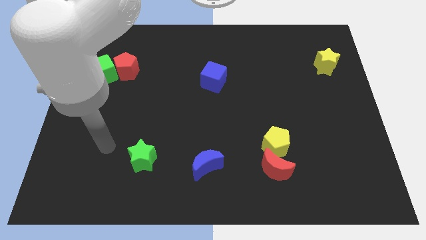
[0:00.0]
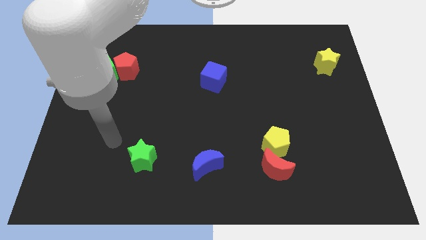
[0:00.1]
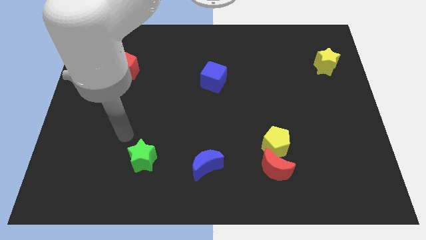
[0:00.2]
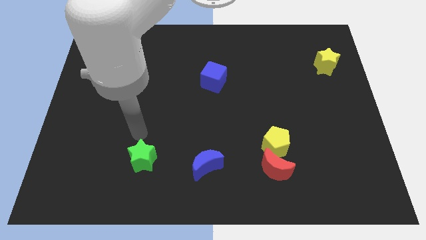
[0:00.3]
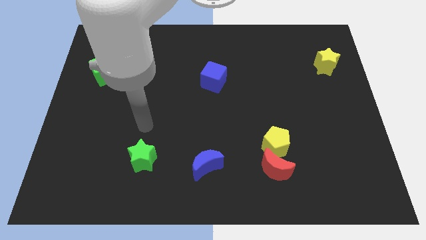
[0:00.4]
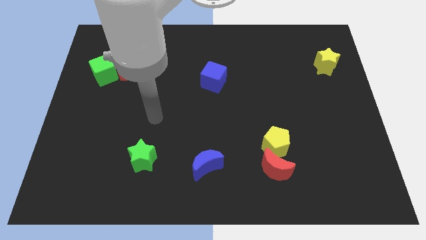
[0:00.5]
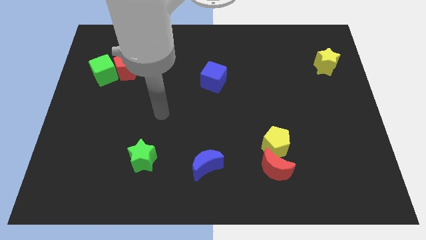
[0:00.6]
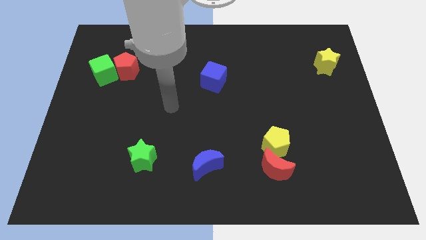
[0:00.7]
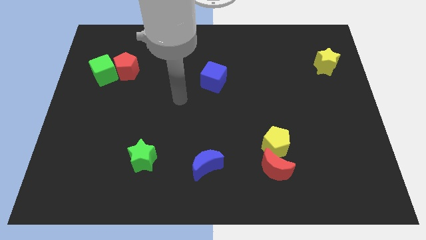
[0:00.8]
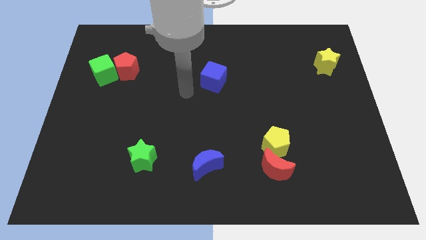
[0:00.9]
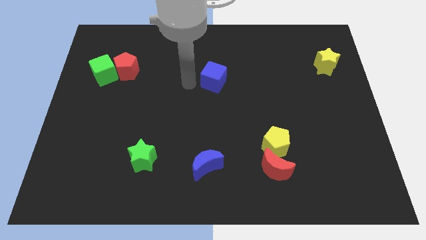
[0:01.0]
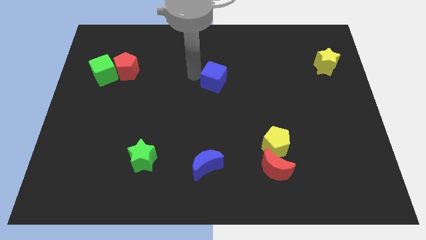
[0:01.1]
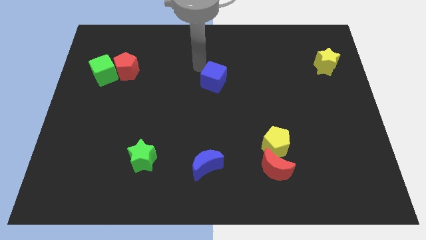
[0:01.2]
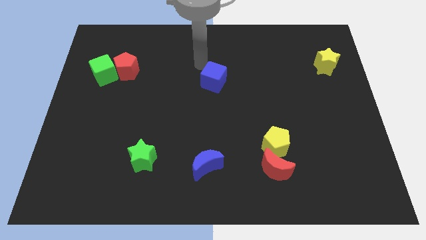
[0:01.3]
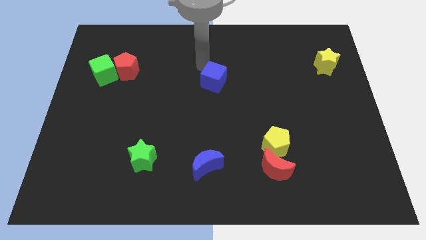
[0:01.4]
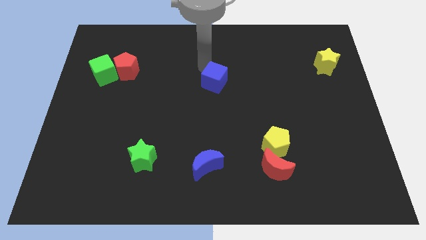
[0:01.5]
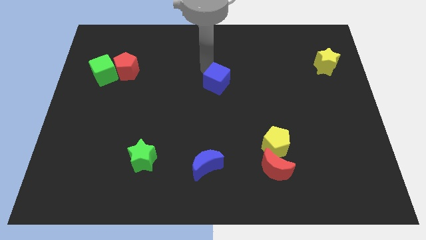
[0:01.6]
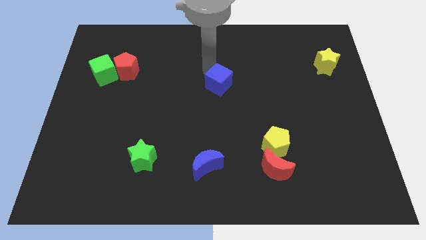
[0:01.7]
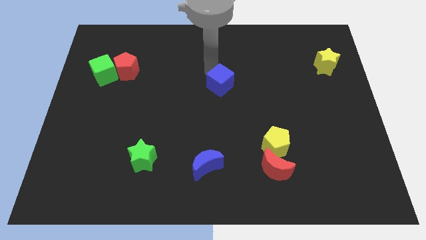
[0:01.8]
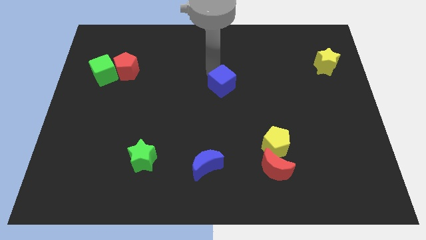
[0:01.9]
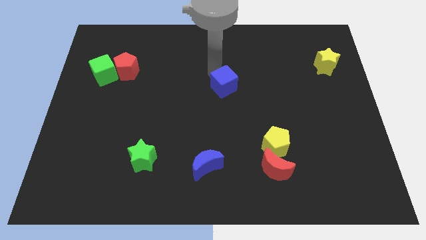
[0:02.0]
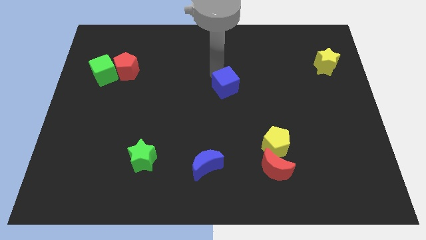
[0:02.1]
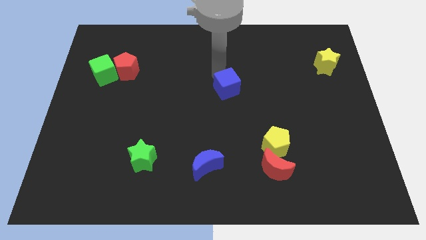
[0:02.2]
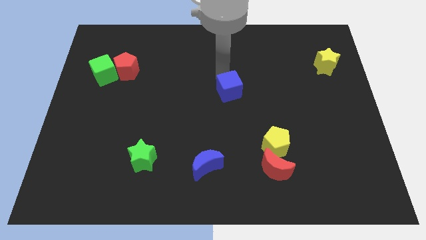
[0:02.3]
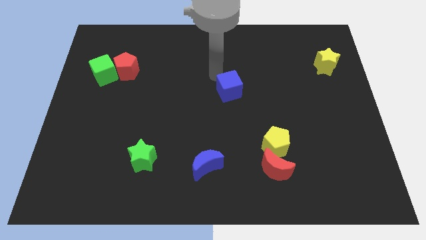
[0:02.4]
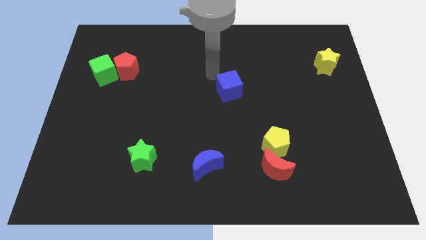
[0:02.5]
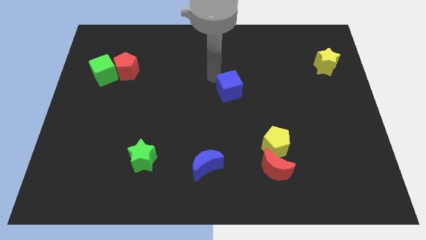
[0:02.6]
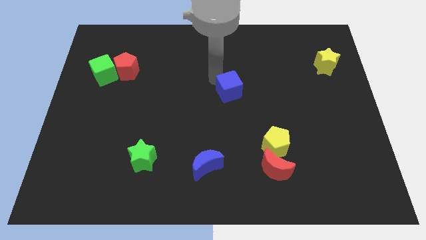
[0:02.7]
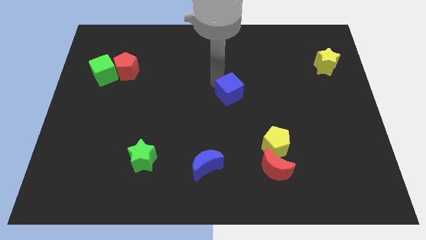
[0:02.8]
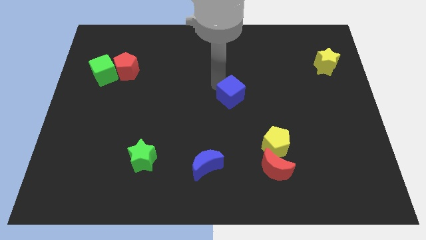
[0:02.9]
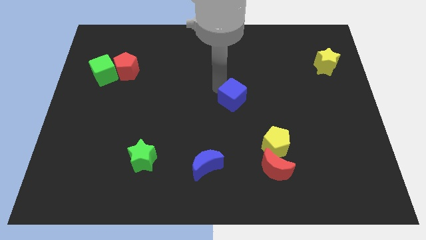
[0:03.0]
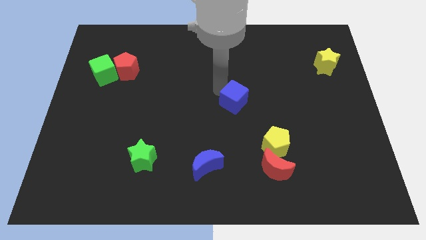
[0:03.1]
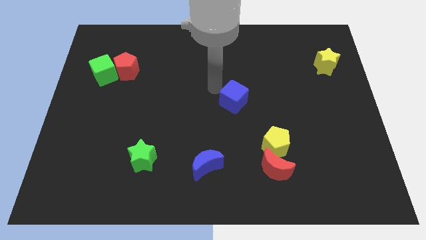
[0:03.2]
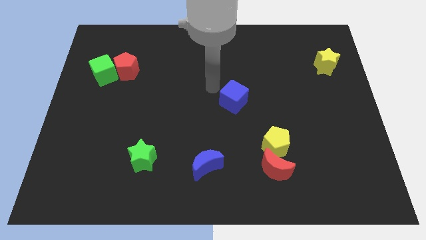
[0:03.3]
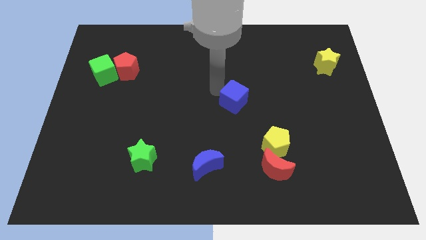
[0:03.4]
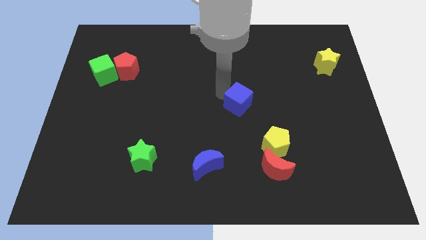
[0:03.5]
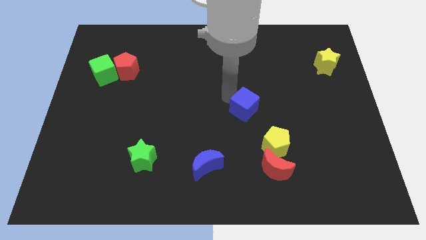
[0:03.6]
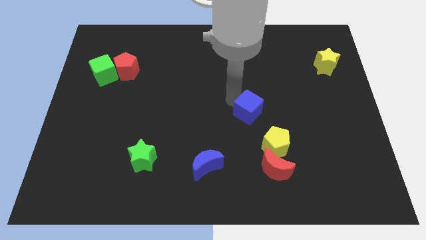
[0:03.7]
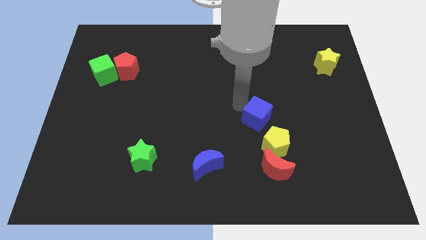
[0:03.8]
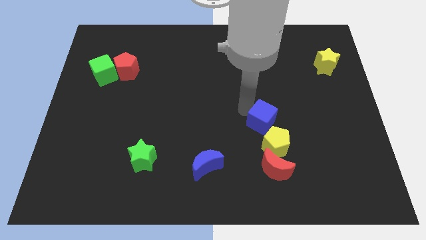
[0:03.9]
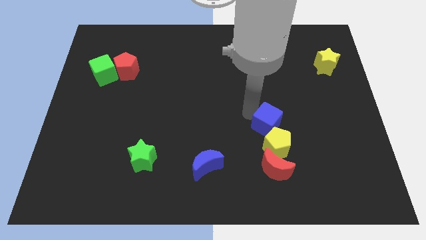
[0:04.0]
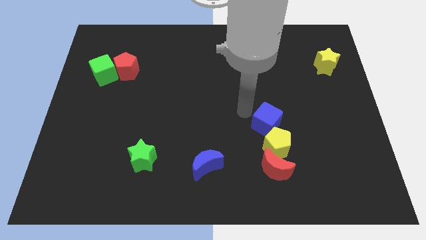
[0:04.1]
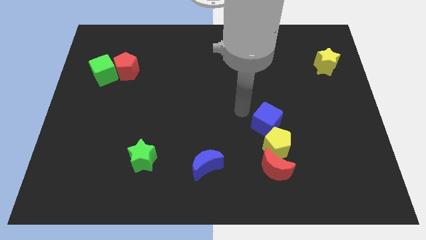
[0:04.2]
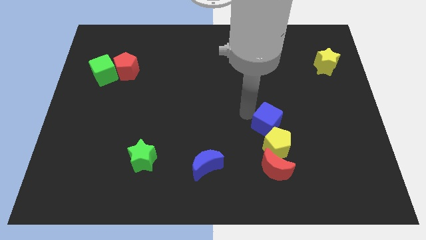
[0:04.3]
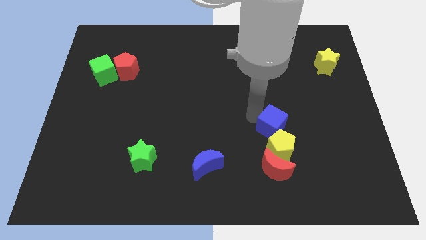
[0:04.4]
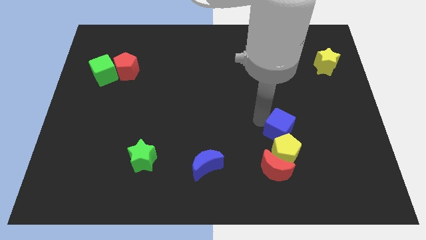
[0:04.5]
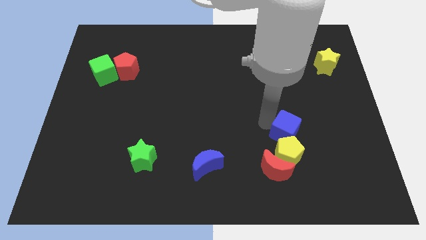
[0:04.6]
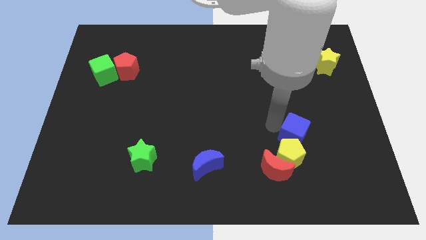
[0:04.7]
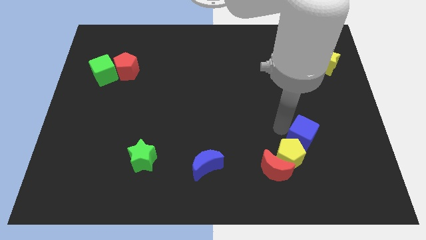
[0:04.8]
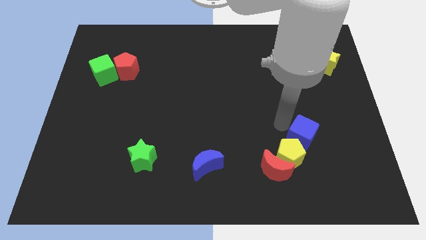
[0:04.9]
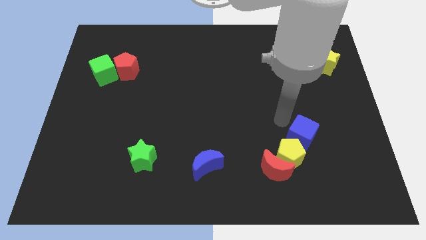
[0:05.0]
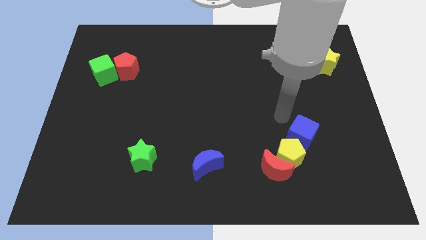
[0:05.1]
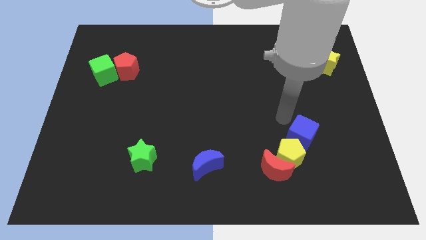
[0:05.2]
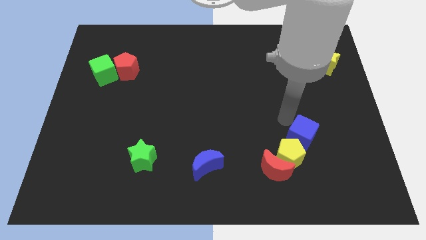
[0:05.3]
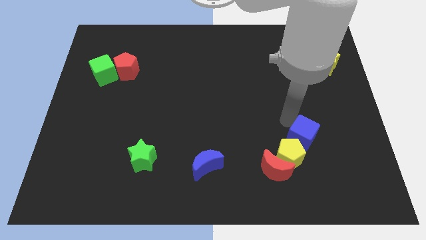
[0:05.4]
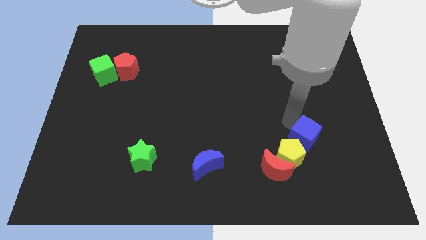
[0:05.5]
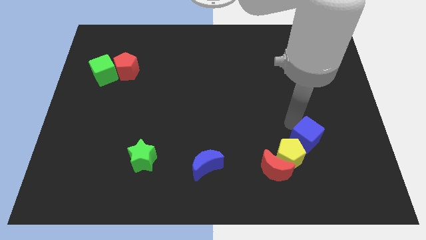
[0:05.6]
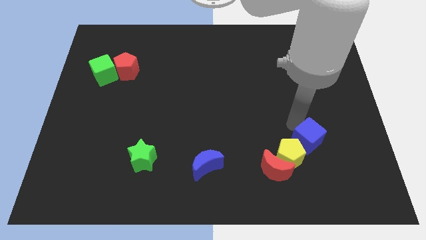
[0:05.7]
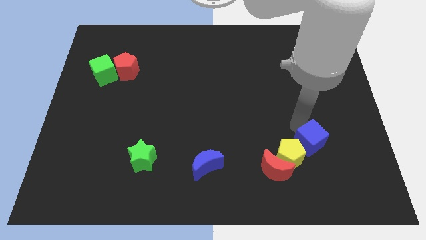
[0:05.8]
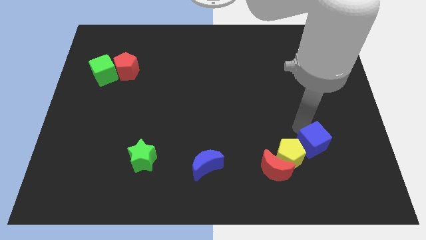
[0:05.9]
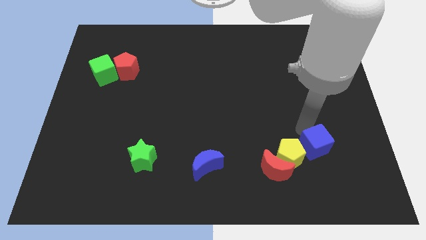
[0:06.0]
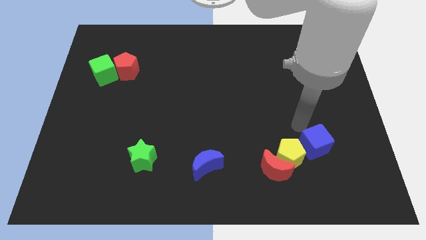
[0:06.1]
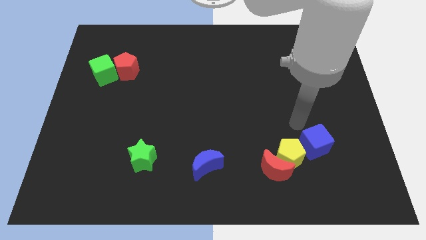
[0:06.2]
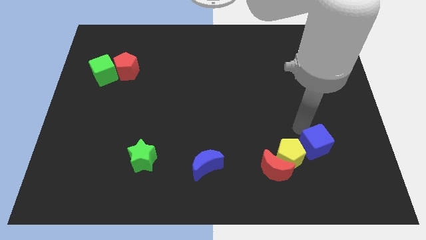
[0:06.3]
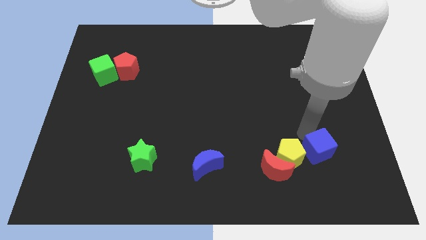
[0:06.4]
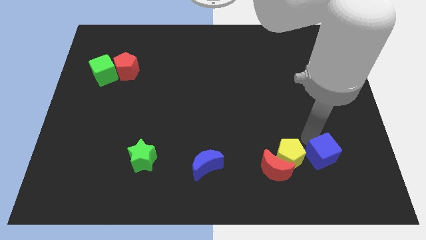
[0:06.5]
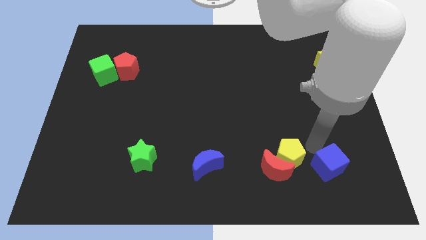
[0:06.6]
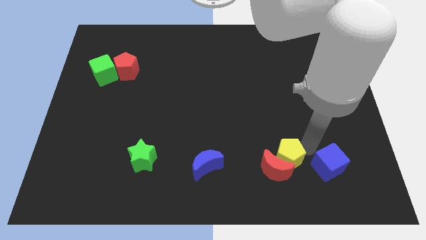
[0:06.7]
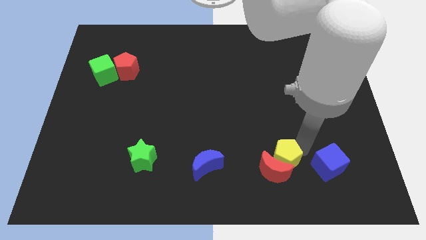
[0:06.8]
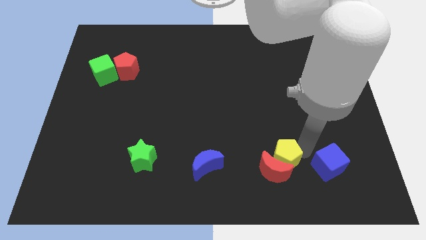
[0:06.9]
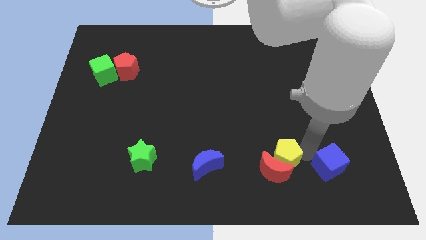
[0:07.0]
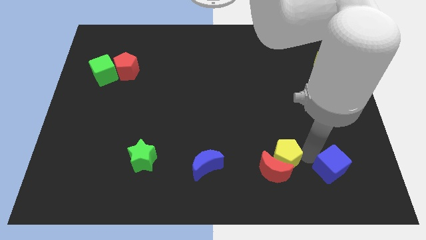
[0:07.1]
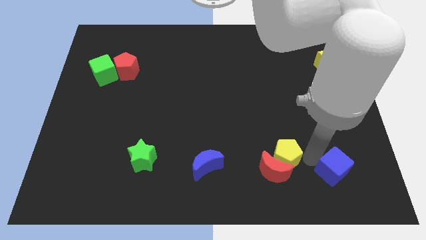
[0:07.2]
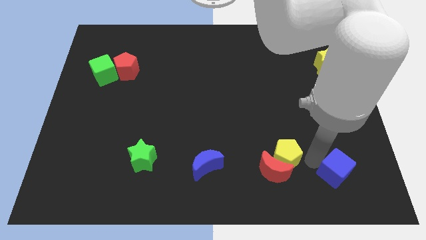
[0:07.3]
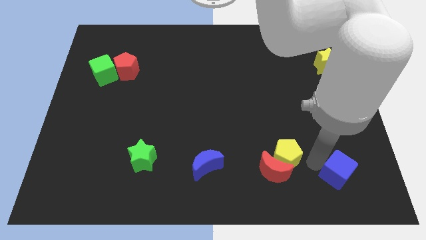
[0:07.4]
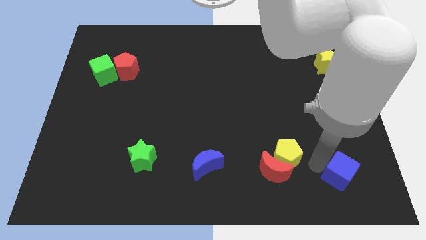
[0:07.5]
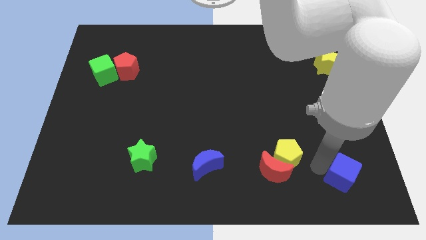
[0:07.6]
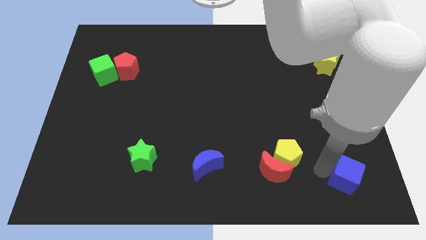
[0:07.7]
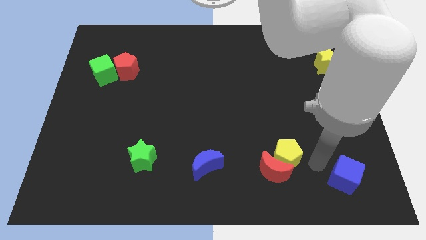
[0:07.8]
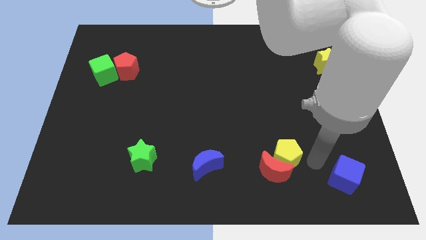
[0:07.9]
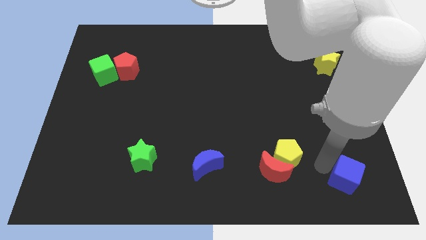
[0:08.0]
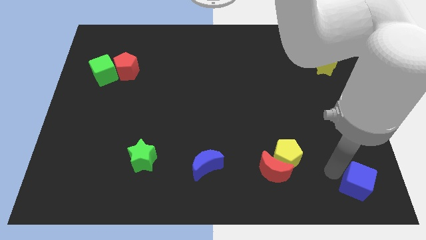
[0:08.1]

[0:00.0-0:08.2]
slide the blue cube to the bottom right corner
